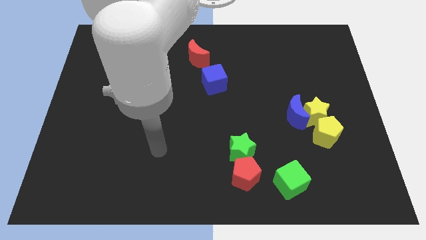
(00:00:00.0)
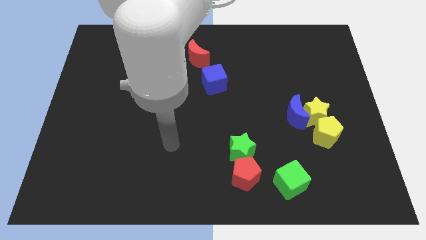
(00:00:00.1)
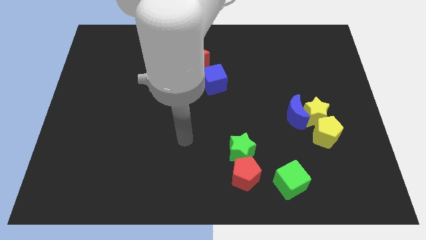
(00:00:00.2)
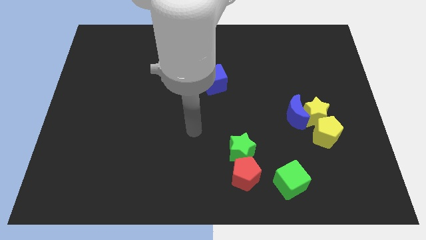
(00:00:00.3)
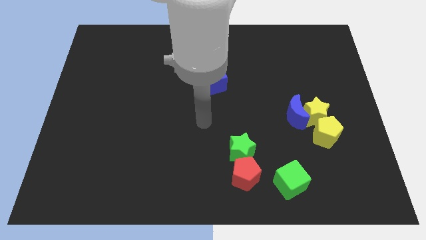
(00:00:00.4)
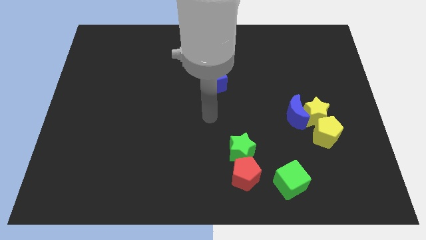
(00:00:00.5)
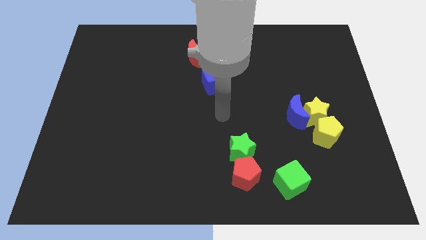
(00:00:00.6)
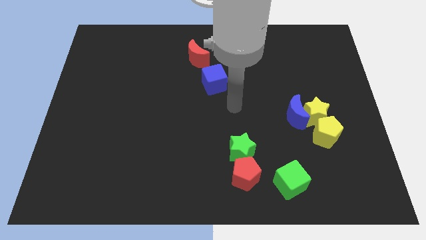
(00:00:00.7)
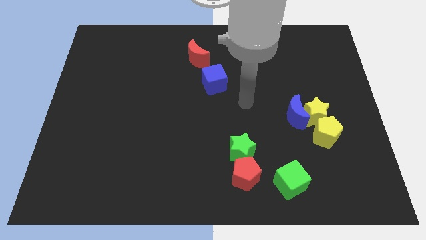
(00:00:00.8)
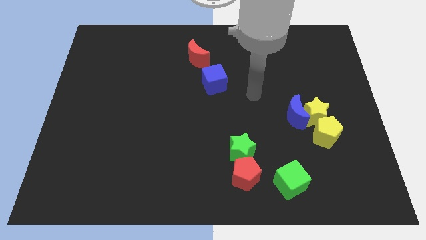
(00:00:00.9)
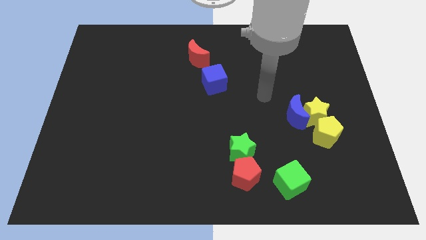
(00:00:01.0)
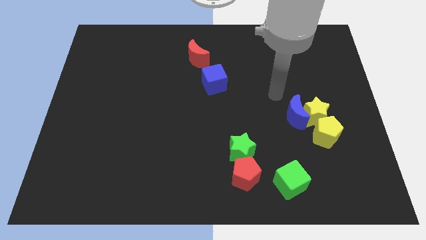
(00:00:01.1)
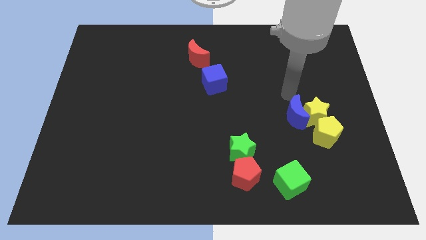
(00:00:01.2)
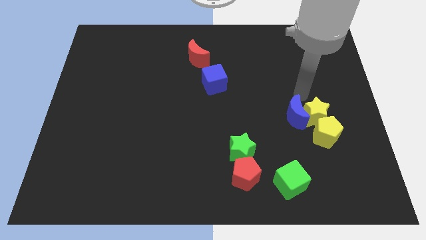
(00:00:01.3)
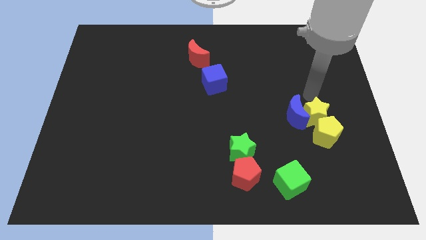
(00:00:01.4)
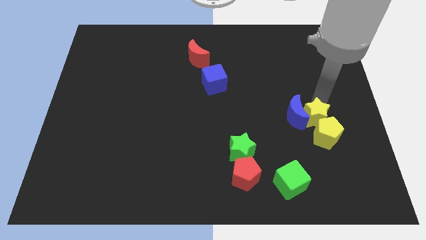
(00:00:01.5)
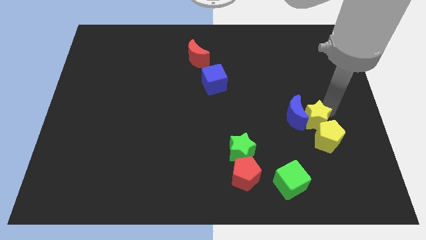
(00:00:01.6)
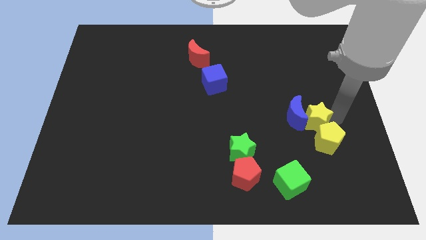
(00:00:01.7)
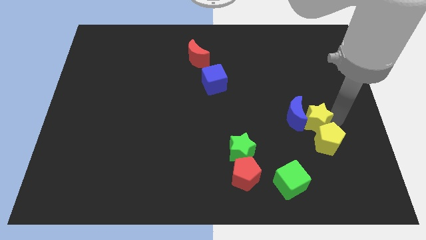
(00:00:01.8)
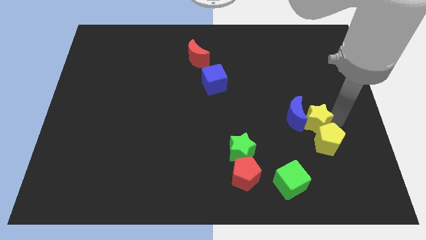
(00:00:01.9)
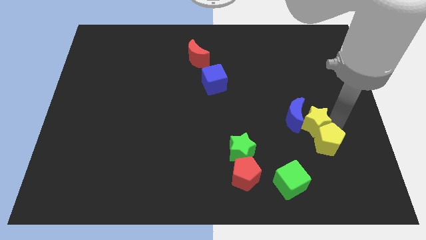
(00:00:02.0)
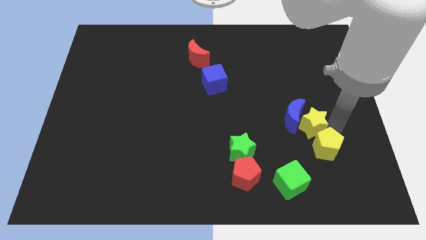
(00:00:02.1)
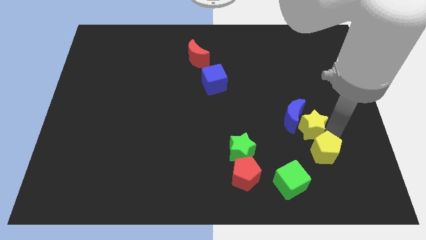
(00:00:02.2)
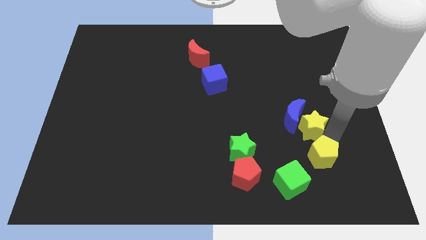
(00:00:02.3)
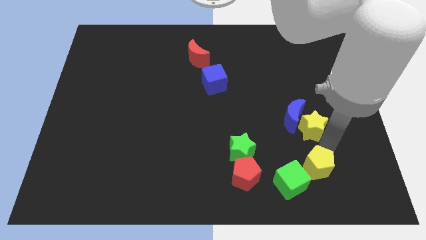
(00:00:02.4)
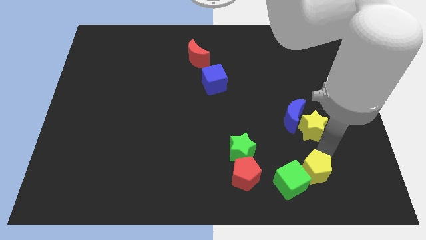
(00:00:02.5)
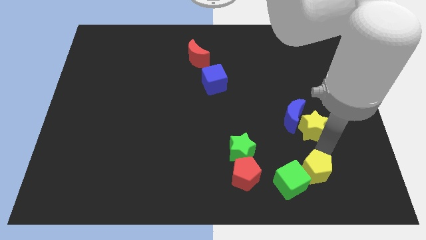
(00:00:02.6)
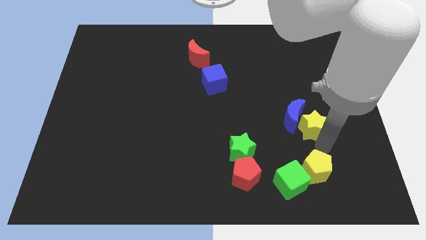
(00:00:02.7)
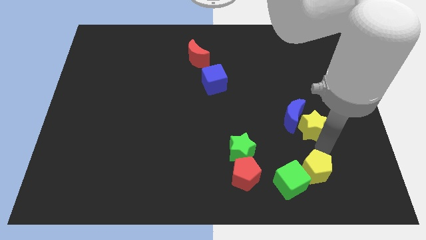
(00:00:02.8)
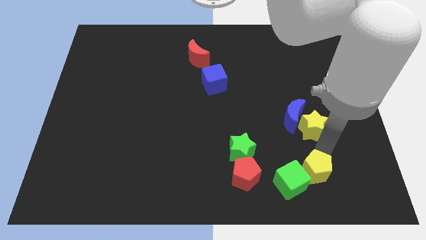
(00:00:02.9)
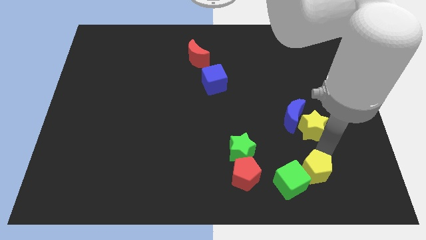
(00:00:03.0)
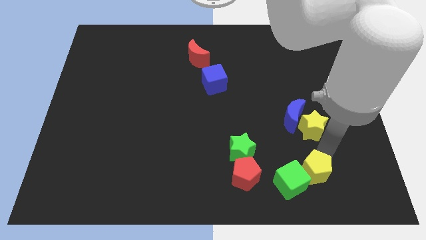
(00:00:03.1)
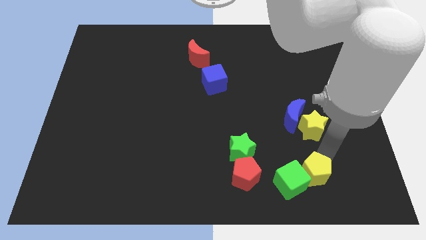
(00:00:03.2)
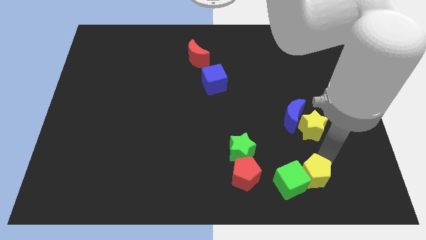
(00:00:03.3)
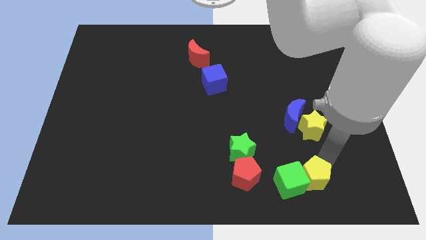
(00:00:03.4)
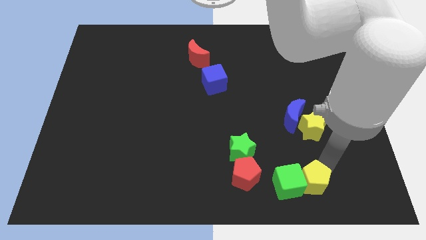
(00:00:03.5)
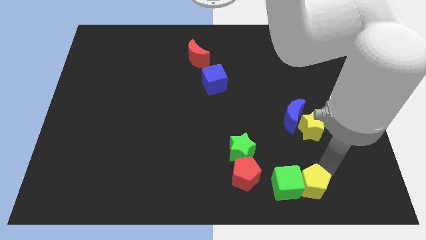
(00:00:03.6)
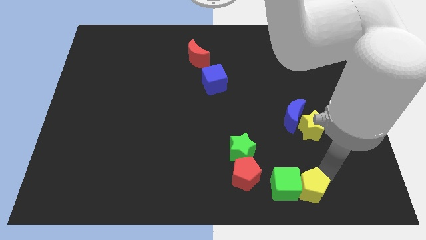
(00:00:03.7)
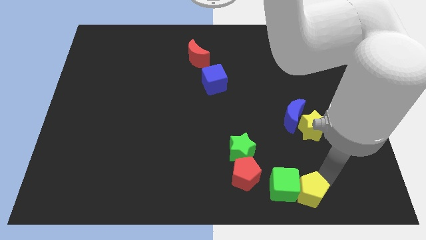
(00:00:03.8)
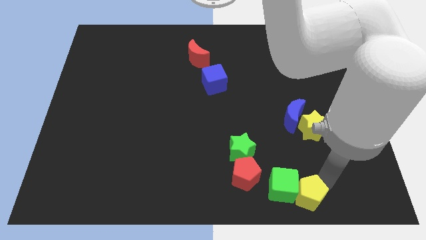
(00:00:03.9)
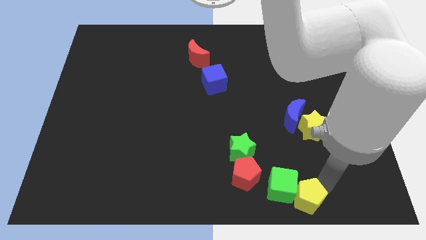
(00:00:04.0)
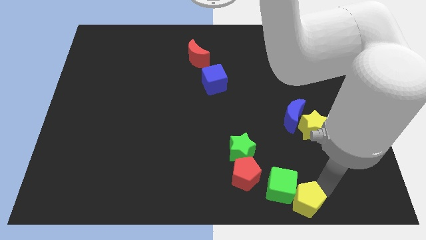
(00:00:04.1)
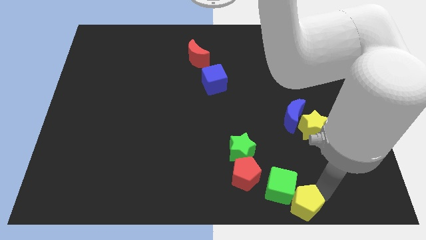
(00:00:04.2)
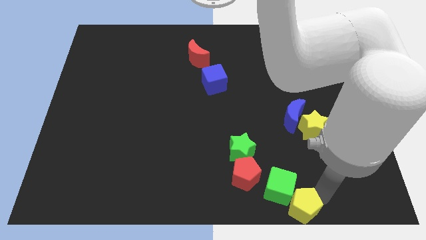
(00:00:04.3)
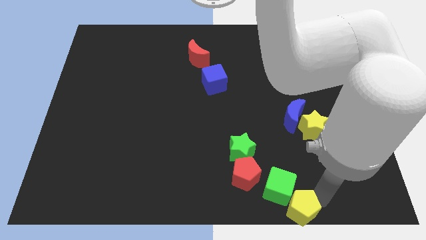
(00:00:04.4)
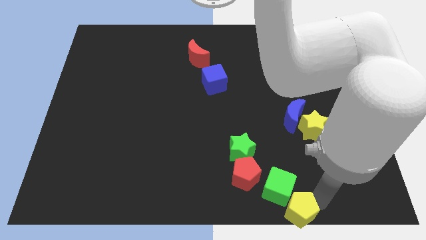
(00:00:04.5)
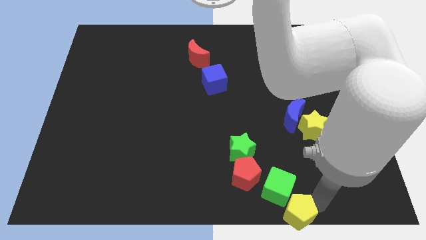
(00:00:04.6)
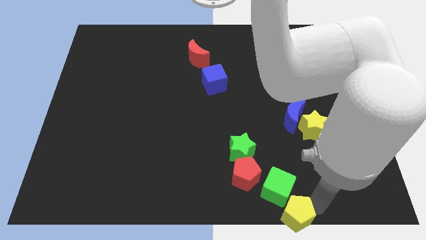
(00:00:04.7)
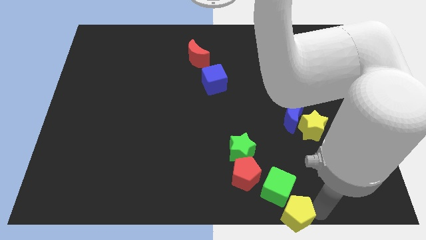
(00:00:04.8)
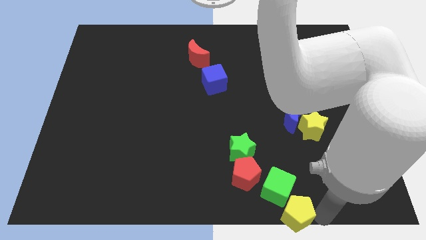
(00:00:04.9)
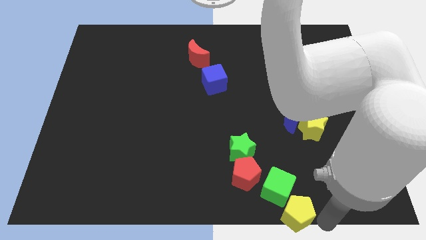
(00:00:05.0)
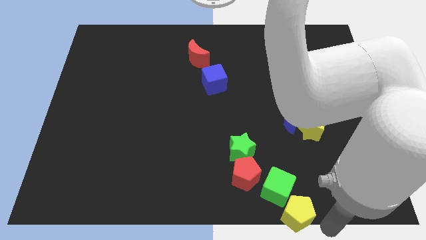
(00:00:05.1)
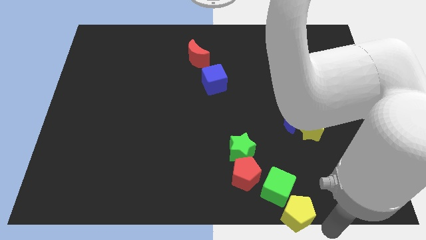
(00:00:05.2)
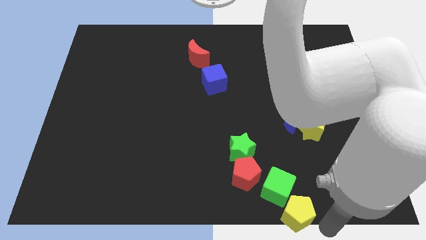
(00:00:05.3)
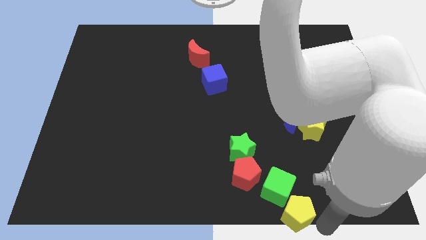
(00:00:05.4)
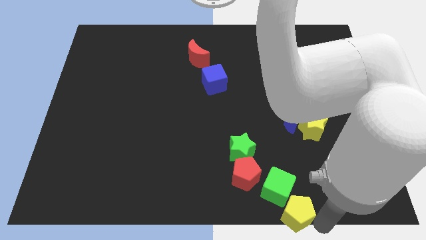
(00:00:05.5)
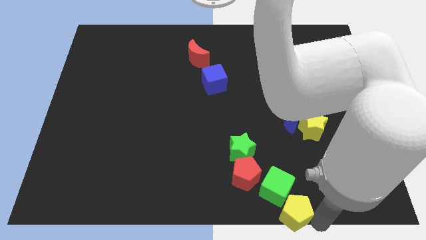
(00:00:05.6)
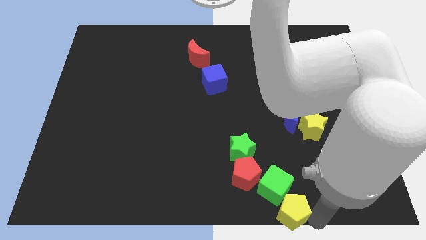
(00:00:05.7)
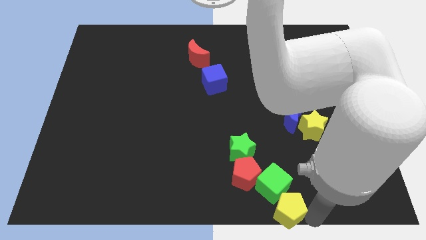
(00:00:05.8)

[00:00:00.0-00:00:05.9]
move the yellow pentagon to the bottom side

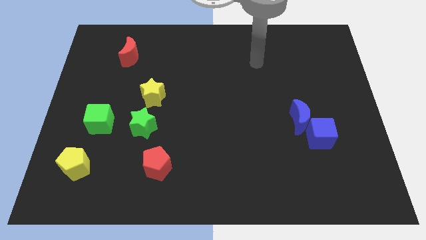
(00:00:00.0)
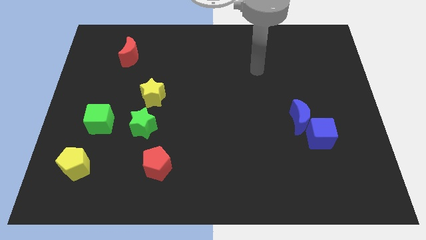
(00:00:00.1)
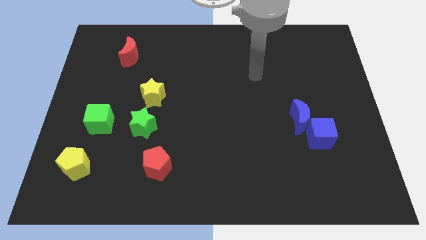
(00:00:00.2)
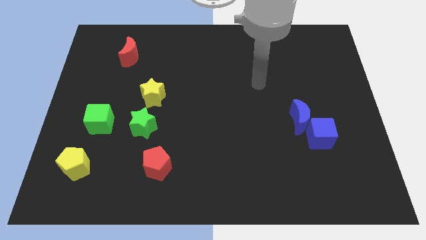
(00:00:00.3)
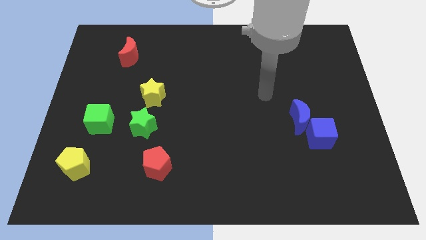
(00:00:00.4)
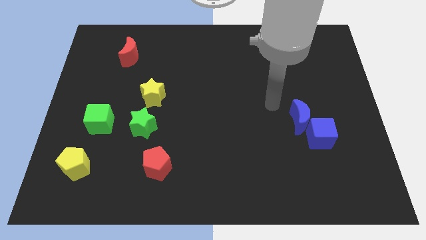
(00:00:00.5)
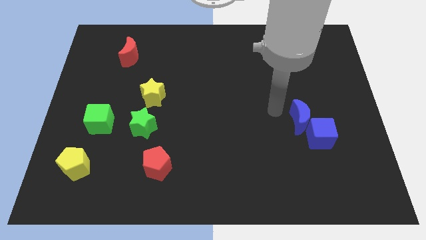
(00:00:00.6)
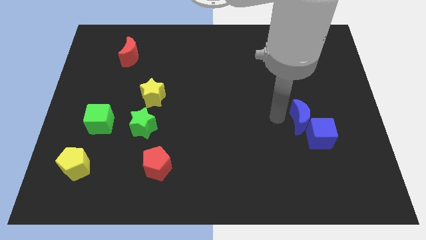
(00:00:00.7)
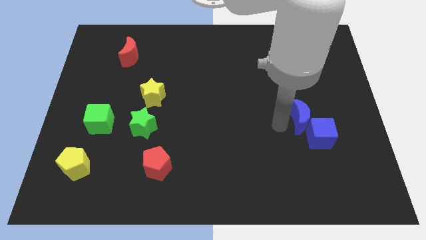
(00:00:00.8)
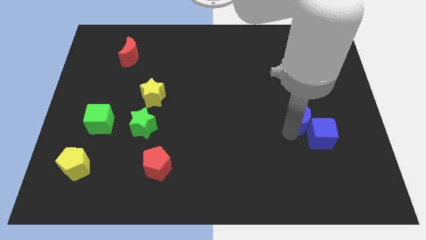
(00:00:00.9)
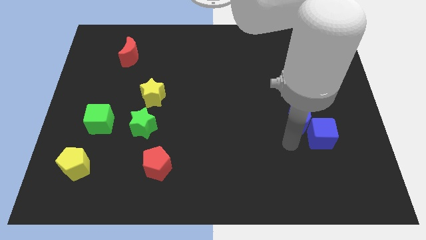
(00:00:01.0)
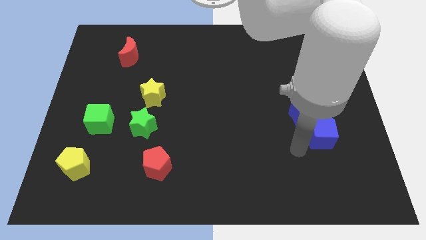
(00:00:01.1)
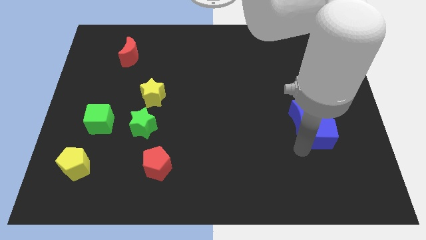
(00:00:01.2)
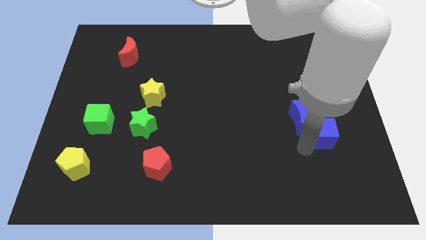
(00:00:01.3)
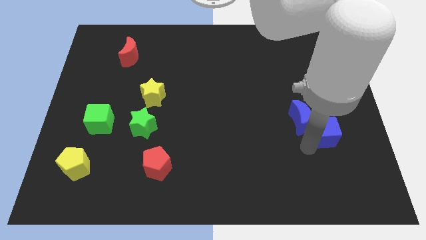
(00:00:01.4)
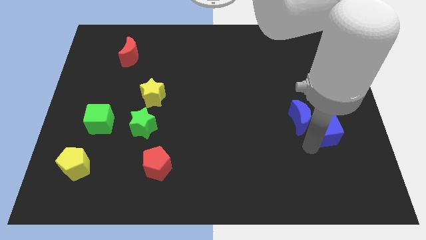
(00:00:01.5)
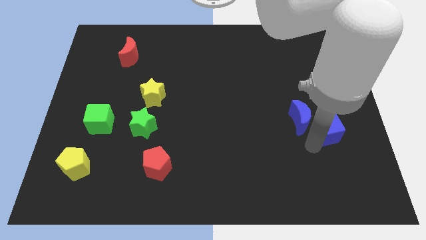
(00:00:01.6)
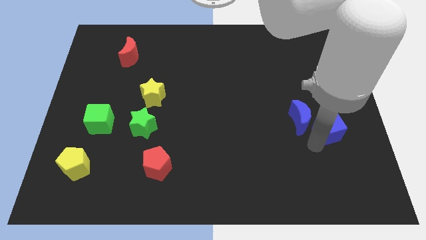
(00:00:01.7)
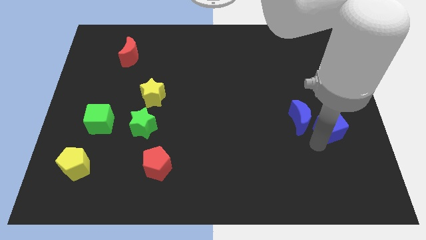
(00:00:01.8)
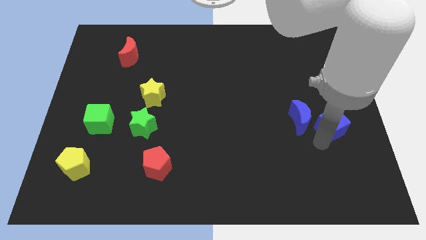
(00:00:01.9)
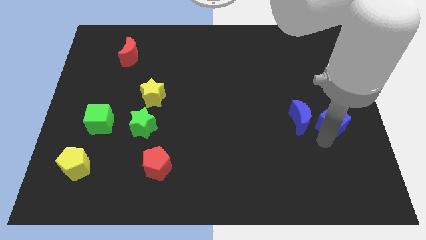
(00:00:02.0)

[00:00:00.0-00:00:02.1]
move the blue cube to the right side of the board
